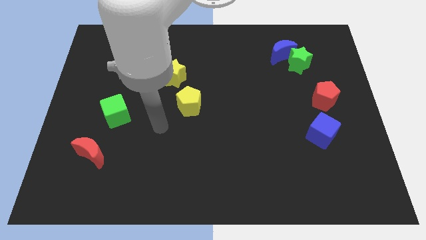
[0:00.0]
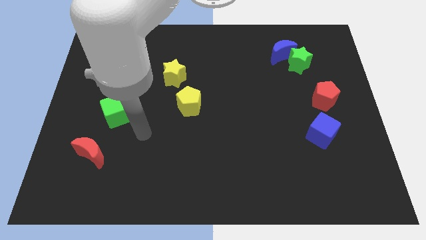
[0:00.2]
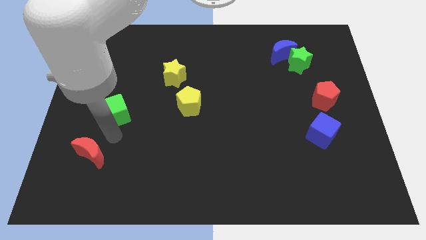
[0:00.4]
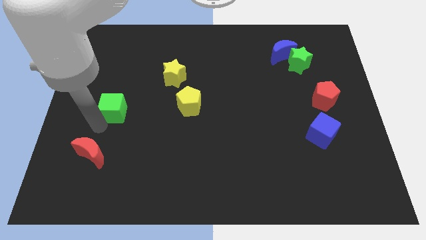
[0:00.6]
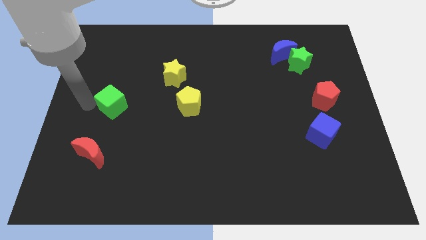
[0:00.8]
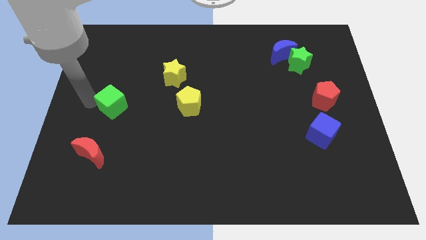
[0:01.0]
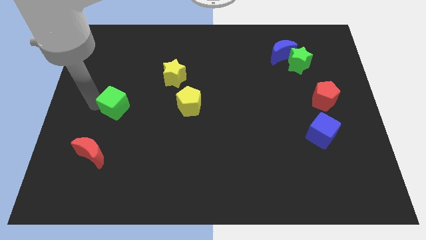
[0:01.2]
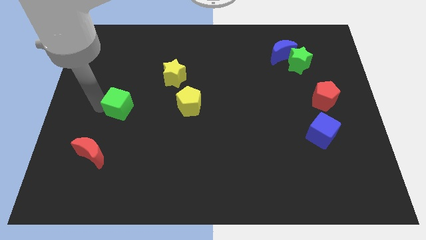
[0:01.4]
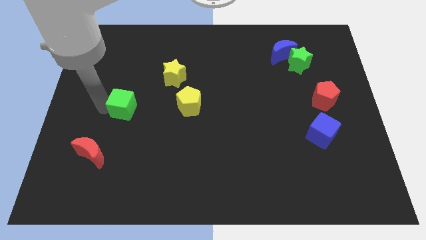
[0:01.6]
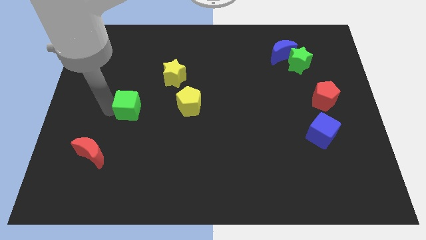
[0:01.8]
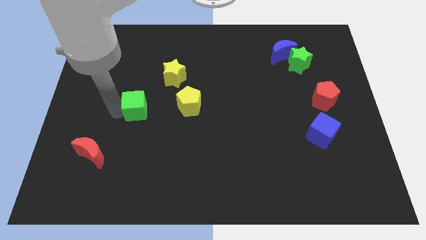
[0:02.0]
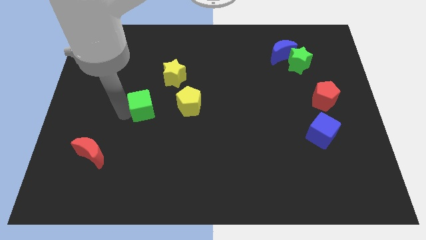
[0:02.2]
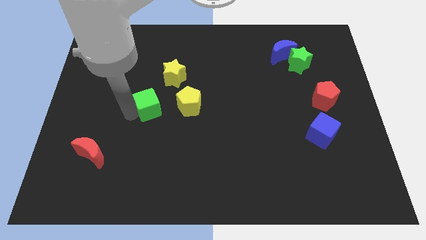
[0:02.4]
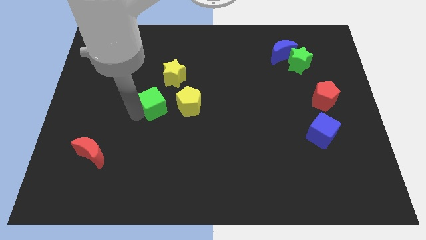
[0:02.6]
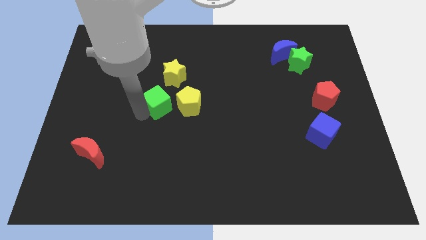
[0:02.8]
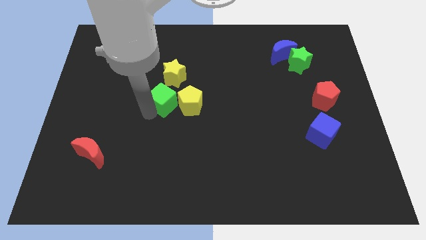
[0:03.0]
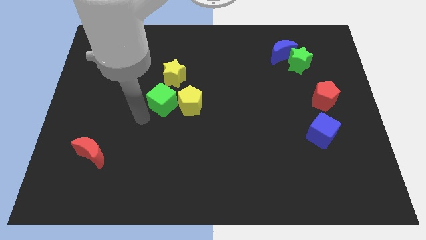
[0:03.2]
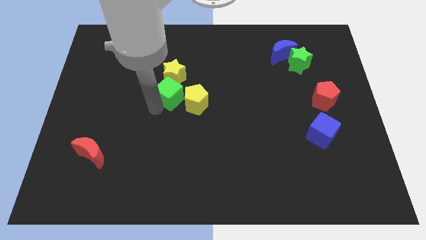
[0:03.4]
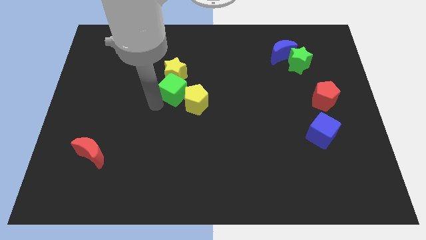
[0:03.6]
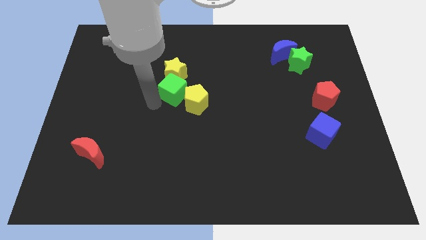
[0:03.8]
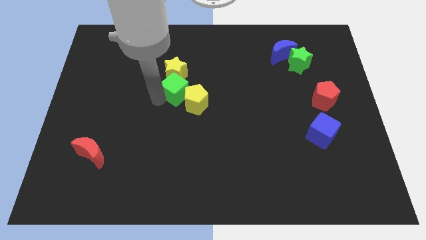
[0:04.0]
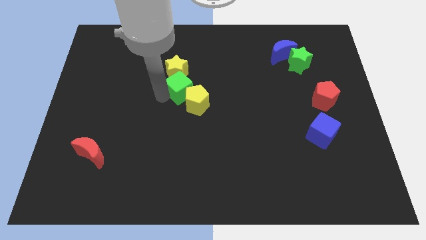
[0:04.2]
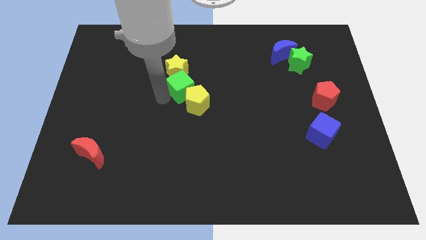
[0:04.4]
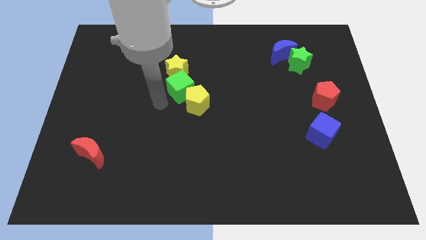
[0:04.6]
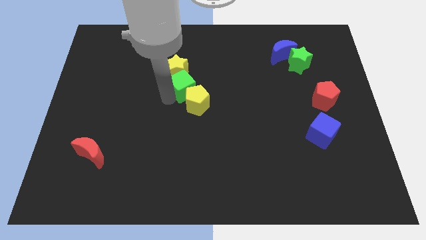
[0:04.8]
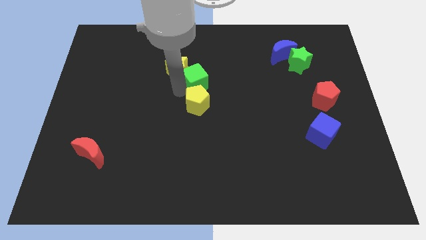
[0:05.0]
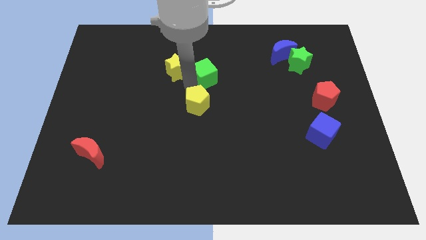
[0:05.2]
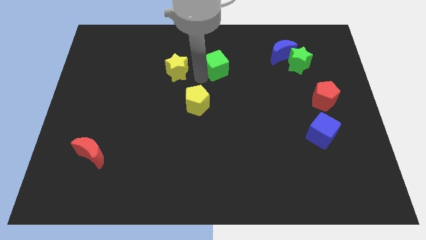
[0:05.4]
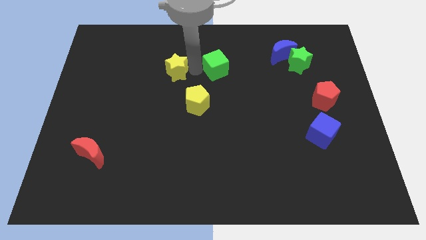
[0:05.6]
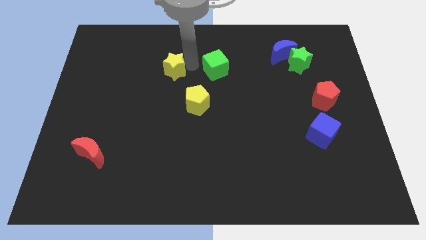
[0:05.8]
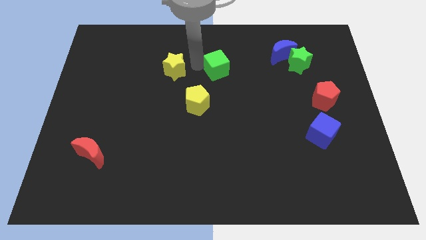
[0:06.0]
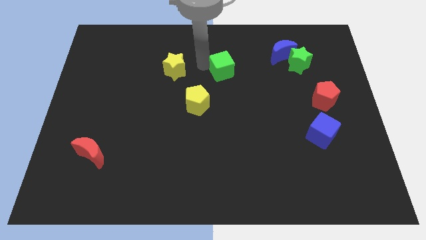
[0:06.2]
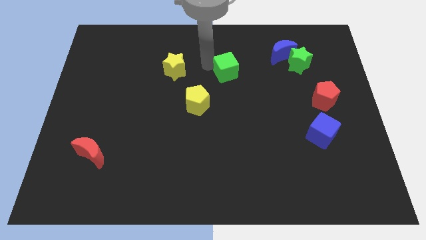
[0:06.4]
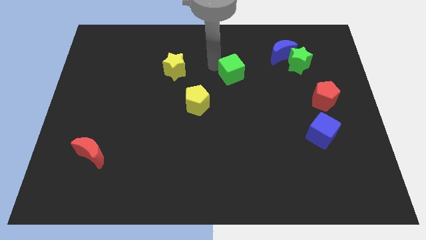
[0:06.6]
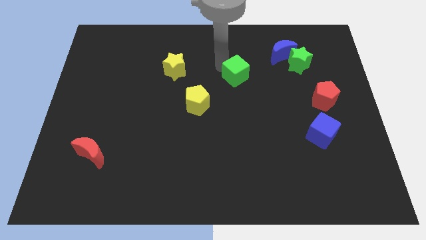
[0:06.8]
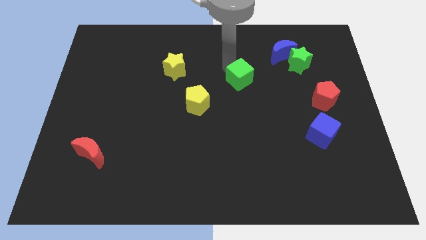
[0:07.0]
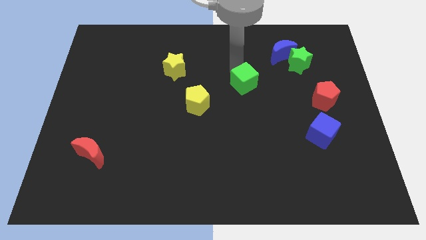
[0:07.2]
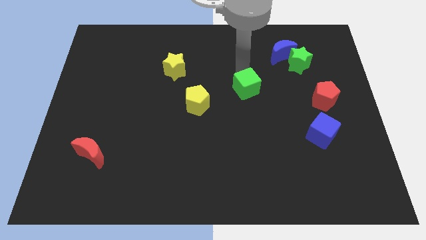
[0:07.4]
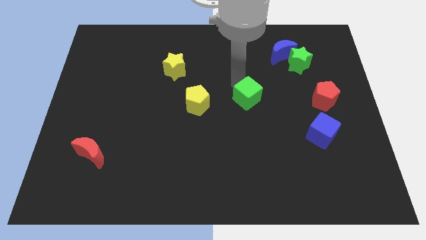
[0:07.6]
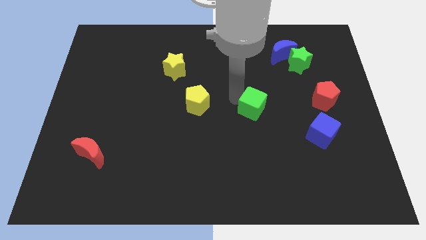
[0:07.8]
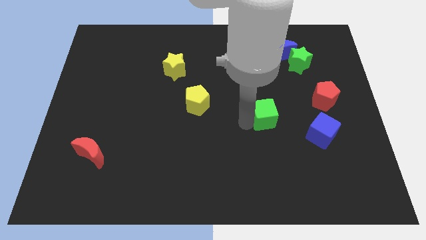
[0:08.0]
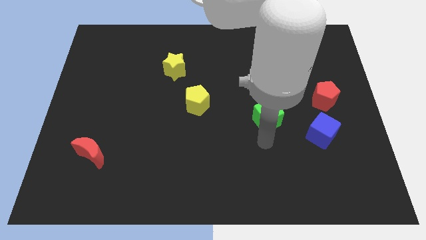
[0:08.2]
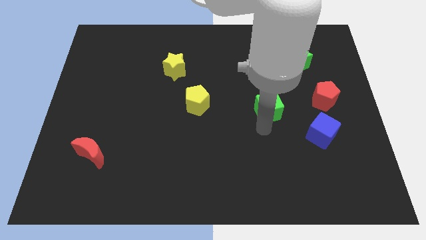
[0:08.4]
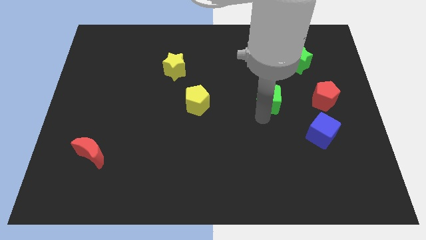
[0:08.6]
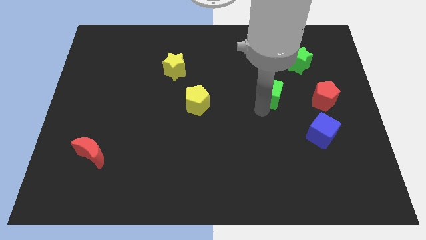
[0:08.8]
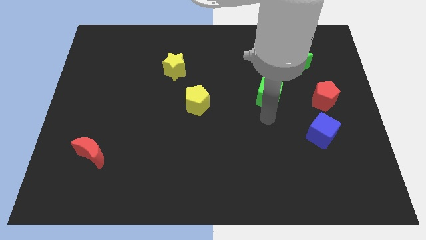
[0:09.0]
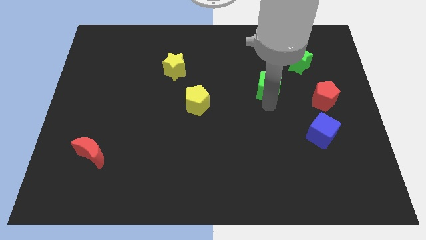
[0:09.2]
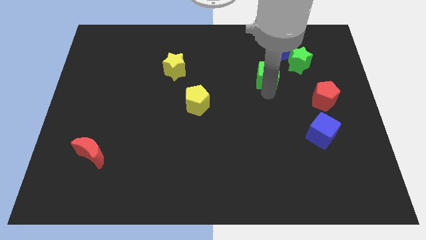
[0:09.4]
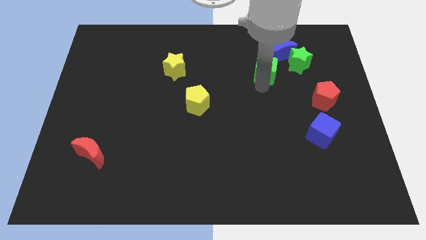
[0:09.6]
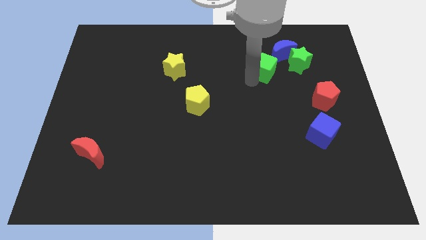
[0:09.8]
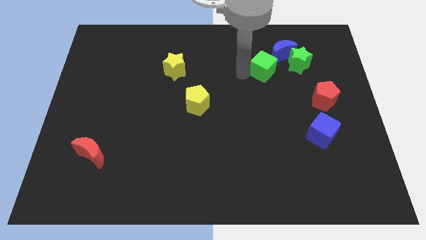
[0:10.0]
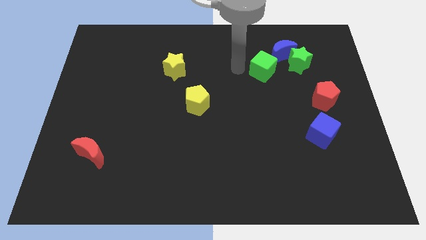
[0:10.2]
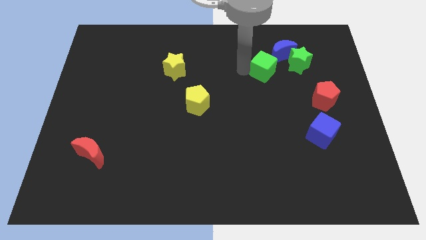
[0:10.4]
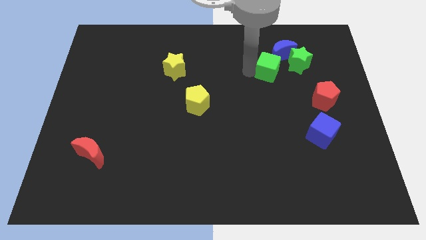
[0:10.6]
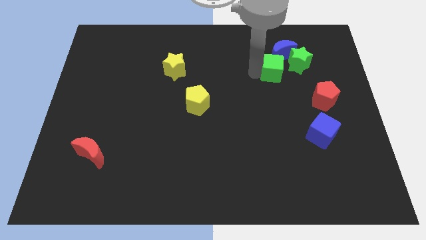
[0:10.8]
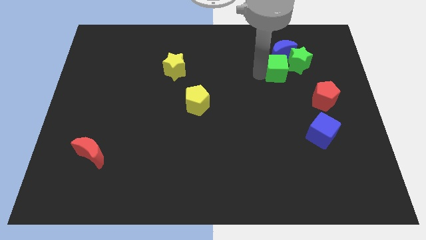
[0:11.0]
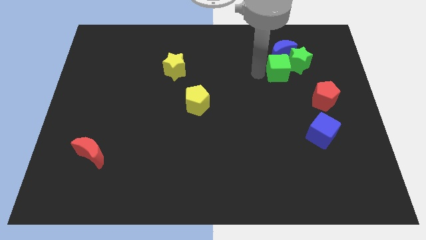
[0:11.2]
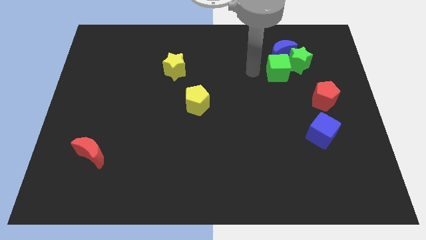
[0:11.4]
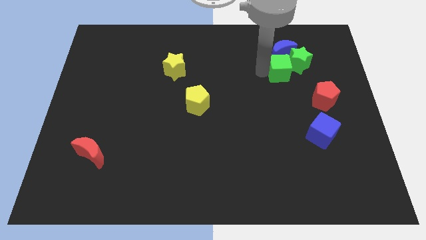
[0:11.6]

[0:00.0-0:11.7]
push the green cube to the green star
